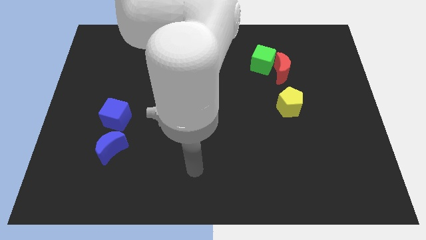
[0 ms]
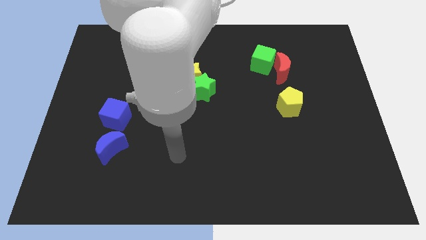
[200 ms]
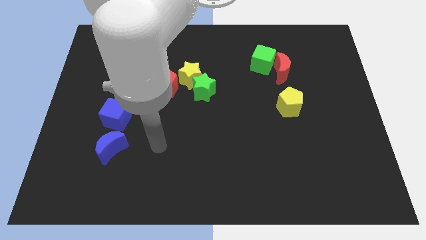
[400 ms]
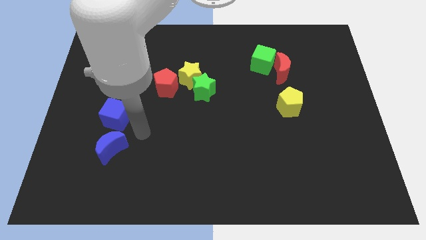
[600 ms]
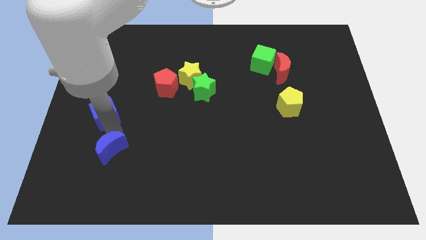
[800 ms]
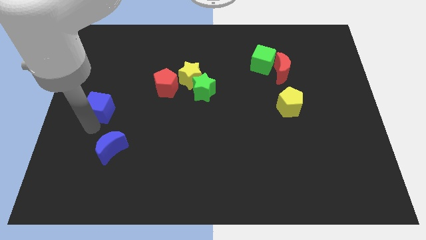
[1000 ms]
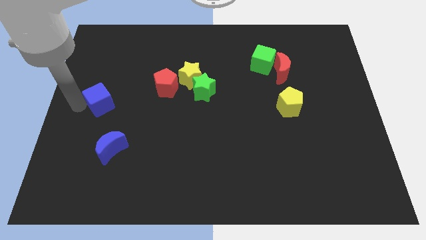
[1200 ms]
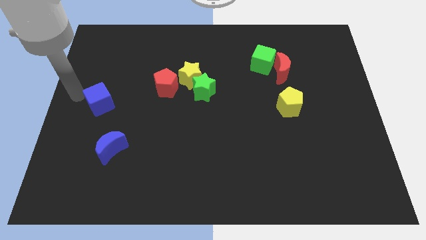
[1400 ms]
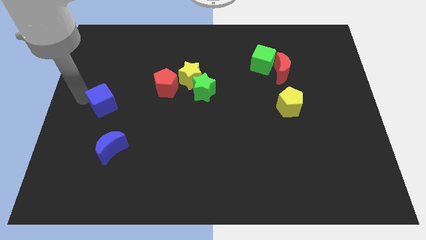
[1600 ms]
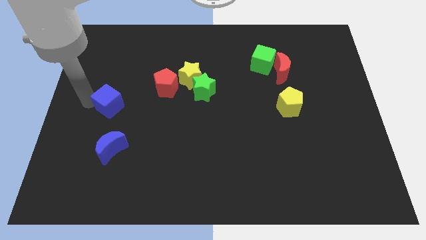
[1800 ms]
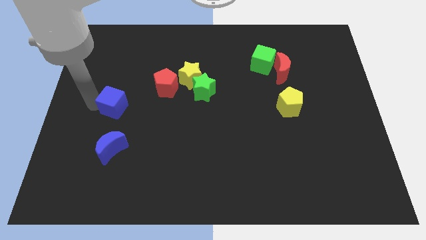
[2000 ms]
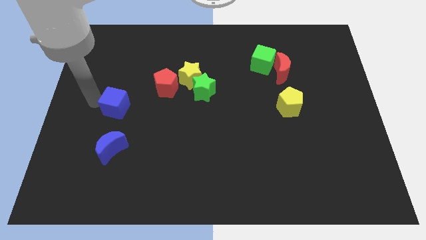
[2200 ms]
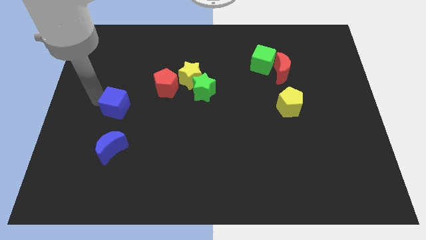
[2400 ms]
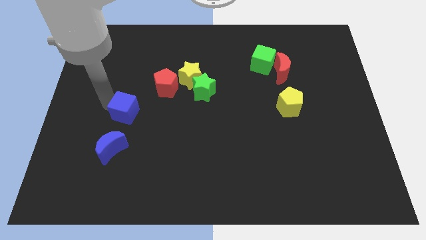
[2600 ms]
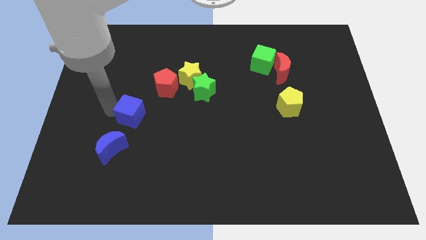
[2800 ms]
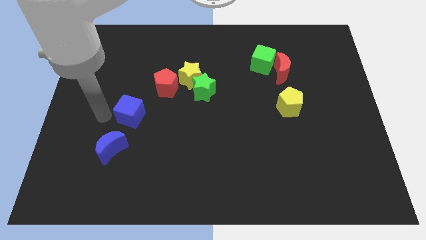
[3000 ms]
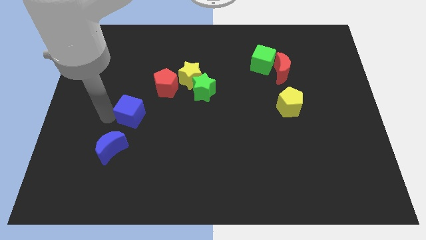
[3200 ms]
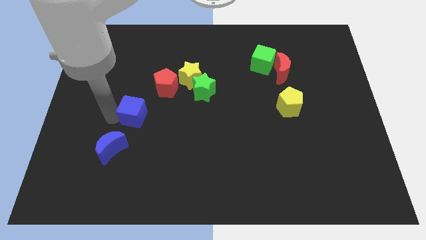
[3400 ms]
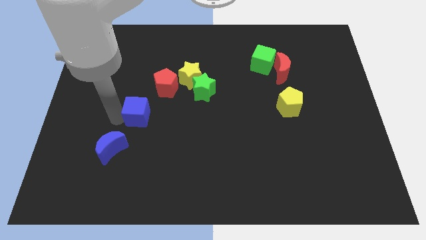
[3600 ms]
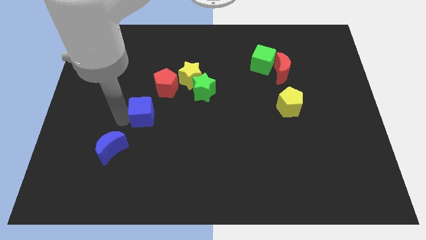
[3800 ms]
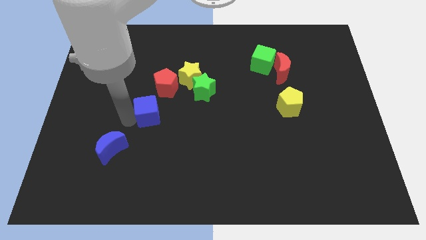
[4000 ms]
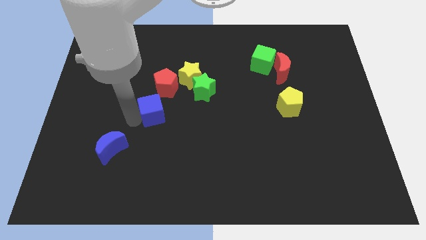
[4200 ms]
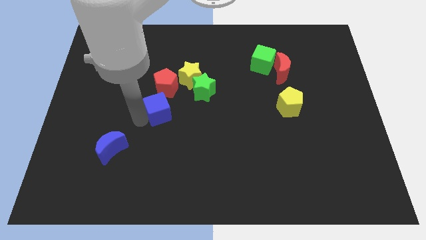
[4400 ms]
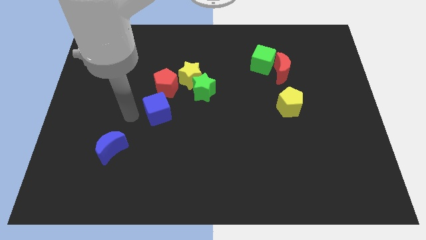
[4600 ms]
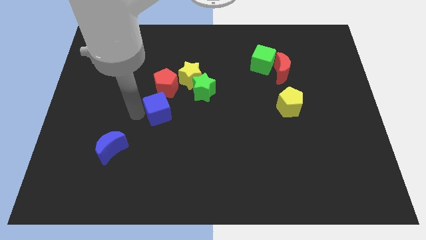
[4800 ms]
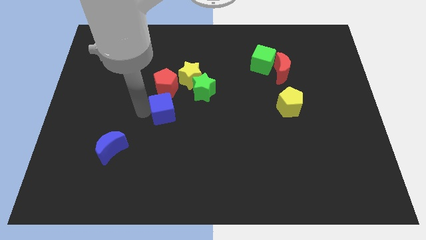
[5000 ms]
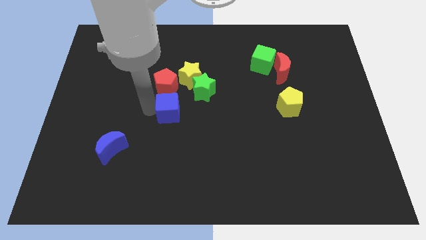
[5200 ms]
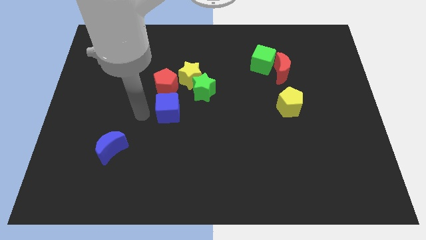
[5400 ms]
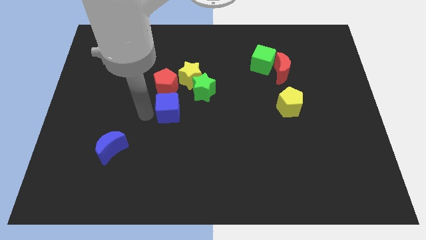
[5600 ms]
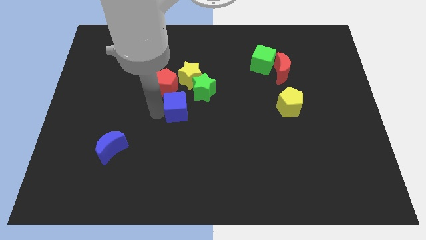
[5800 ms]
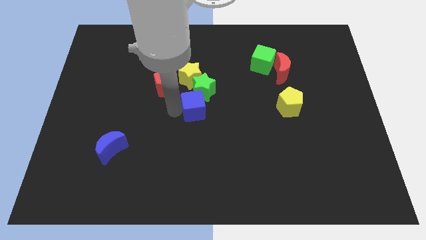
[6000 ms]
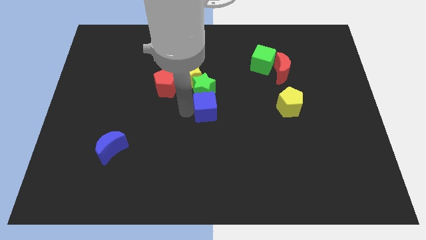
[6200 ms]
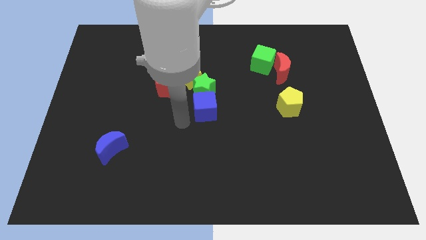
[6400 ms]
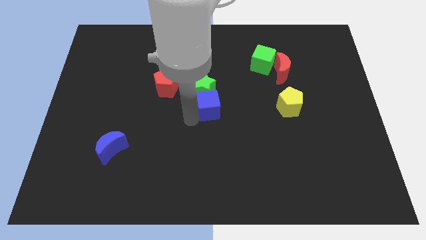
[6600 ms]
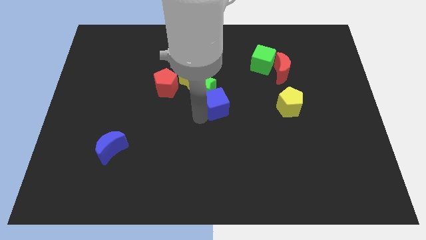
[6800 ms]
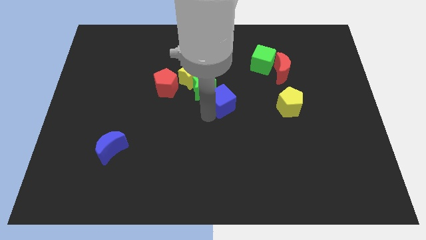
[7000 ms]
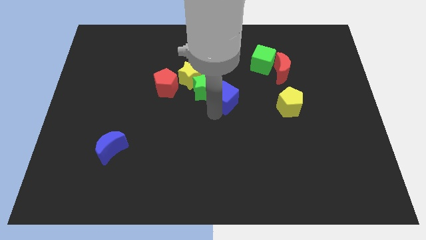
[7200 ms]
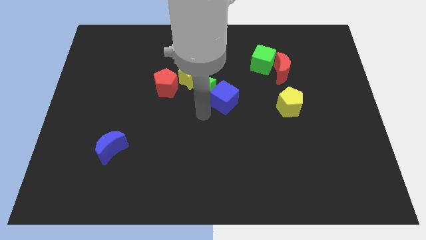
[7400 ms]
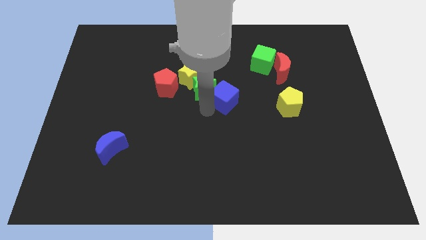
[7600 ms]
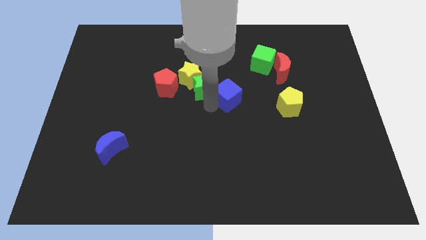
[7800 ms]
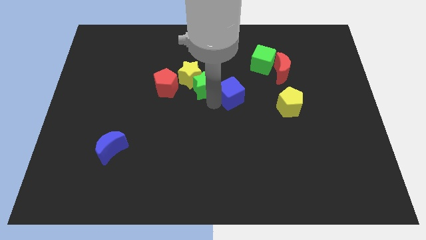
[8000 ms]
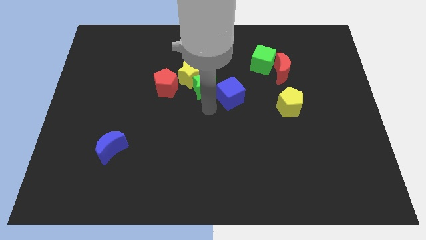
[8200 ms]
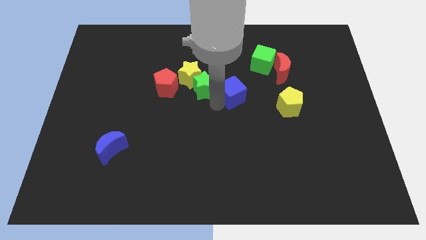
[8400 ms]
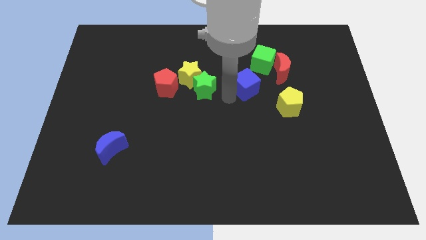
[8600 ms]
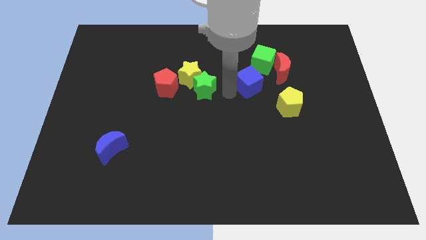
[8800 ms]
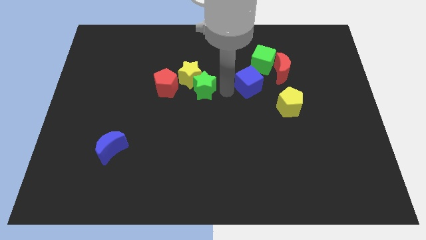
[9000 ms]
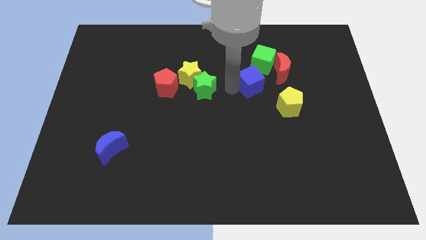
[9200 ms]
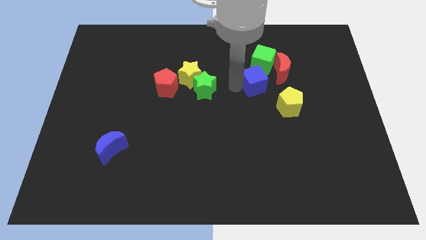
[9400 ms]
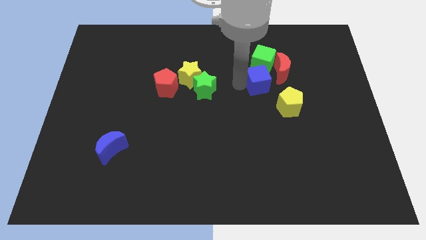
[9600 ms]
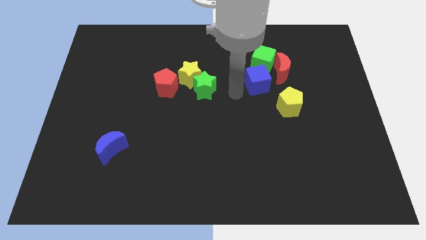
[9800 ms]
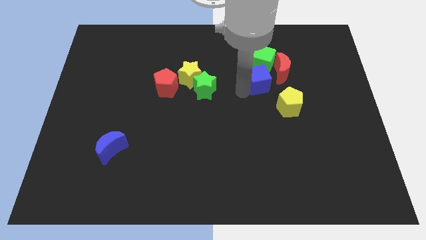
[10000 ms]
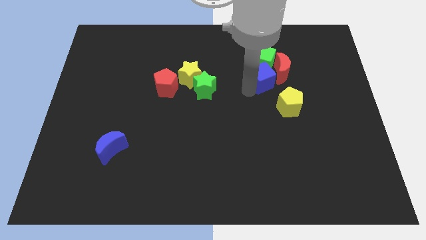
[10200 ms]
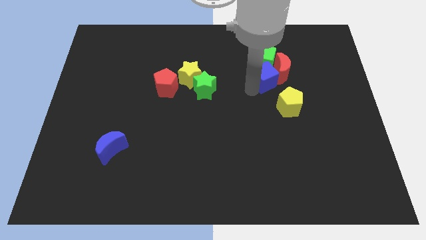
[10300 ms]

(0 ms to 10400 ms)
put the blue cube to the red moon

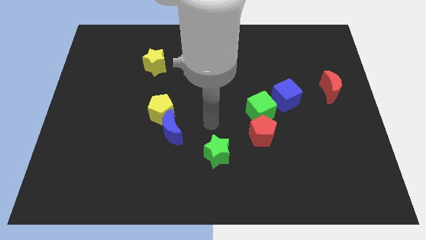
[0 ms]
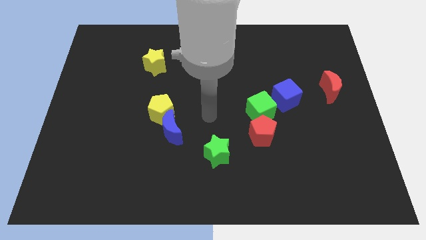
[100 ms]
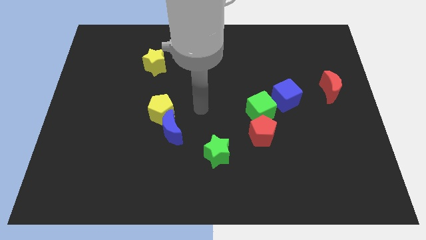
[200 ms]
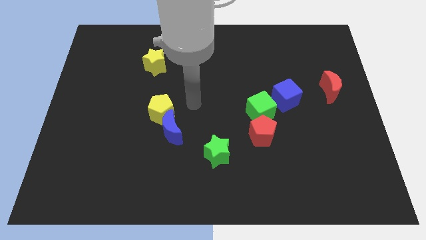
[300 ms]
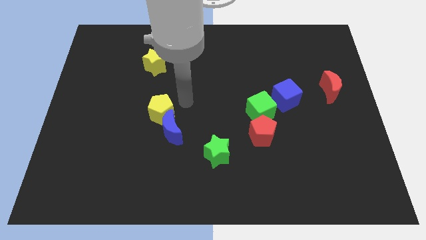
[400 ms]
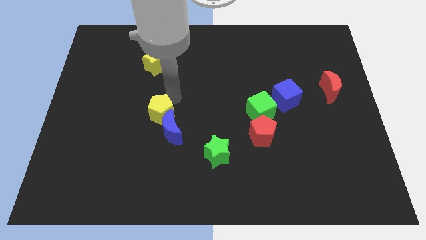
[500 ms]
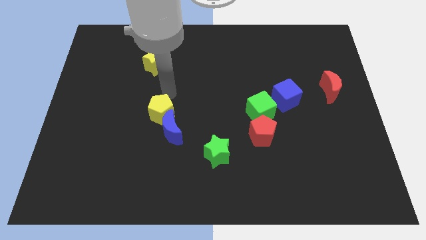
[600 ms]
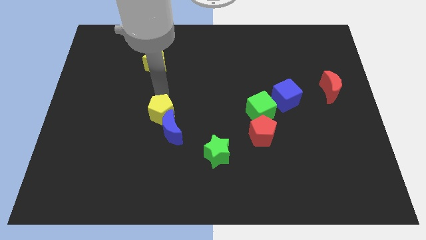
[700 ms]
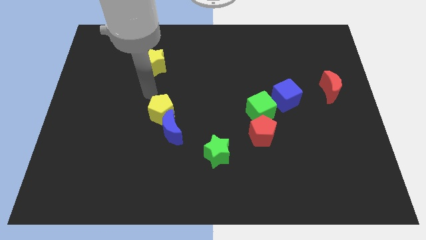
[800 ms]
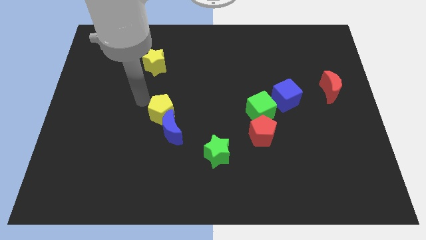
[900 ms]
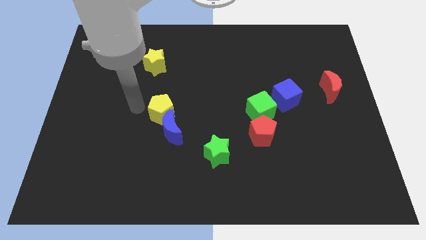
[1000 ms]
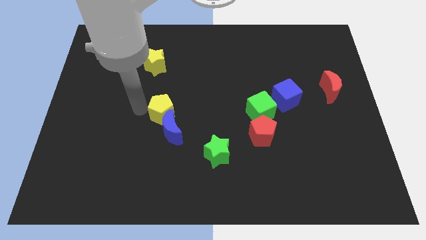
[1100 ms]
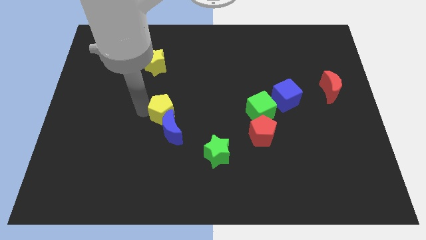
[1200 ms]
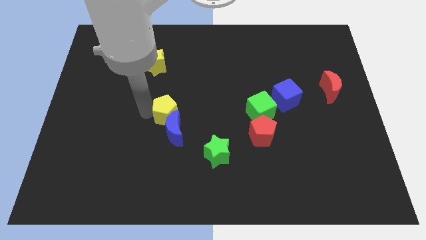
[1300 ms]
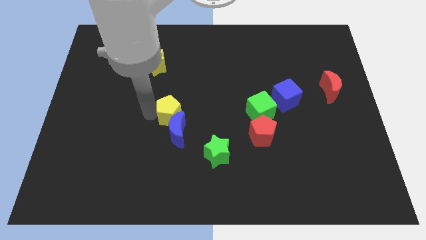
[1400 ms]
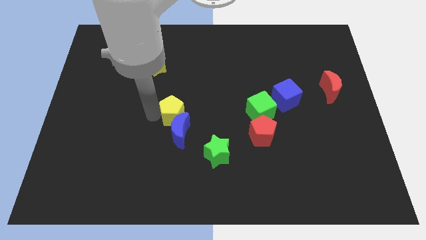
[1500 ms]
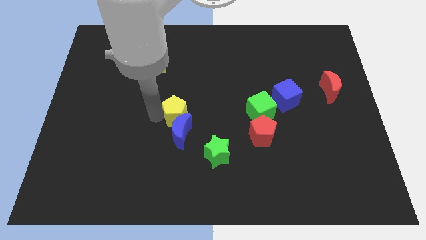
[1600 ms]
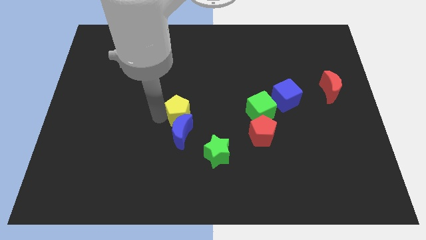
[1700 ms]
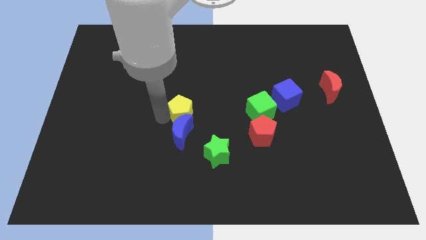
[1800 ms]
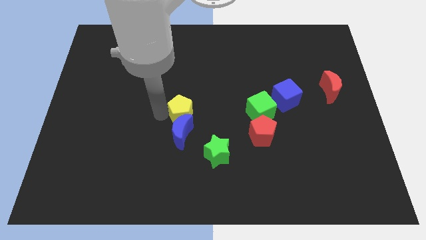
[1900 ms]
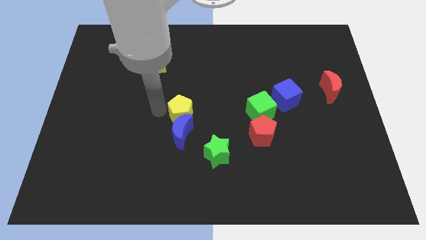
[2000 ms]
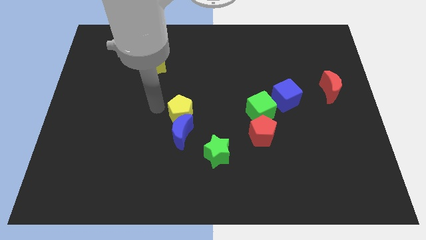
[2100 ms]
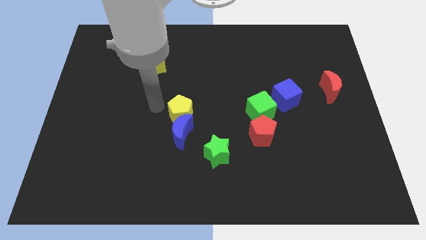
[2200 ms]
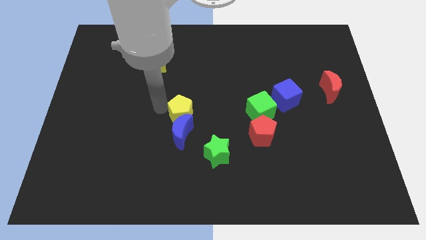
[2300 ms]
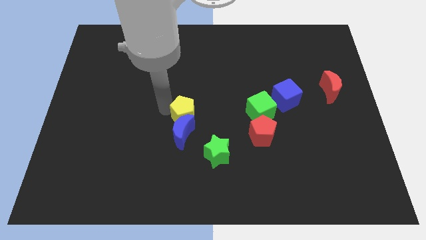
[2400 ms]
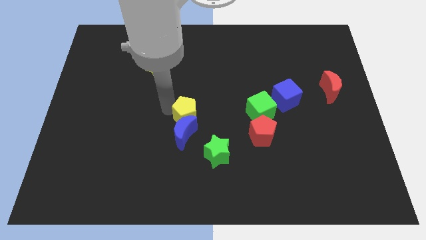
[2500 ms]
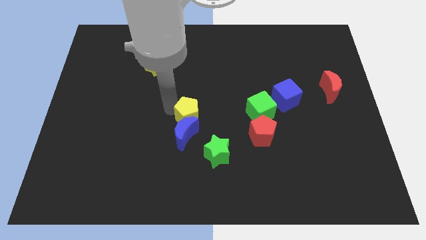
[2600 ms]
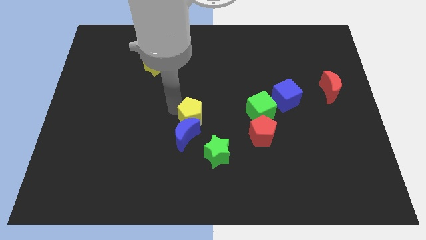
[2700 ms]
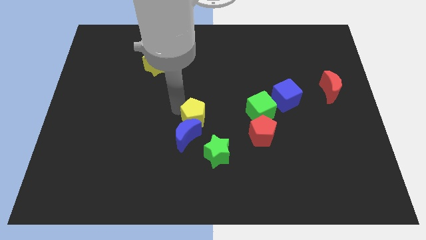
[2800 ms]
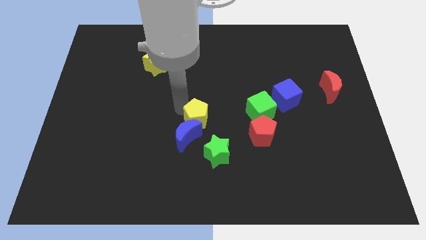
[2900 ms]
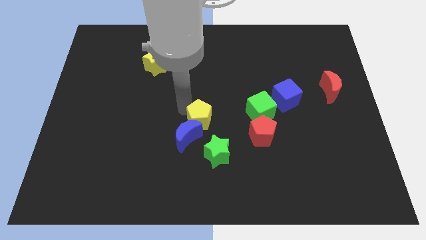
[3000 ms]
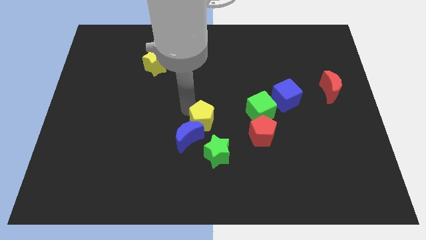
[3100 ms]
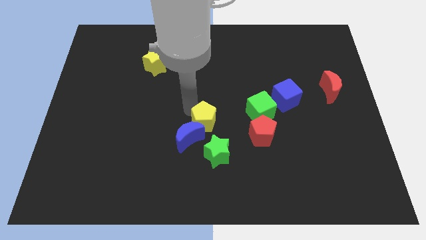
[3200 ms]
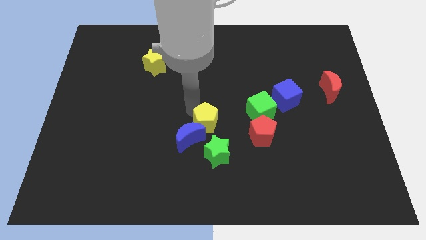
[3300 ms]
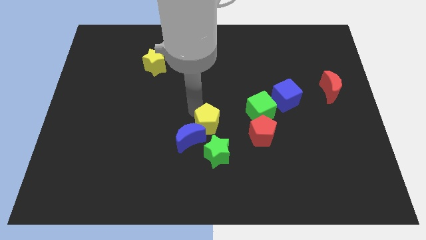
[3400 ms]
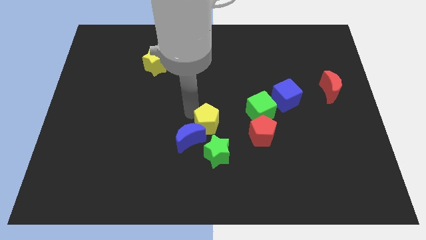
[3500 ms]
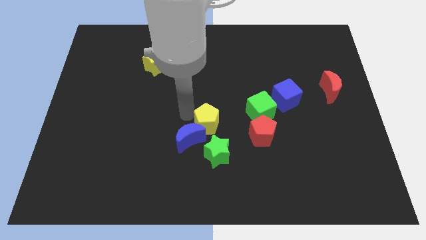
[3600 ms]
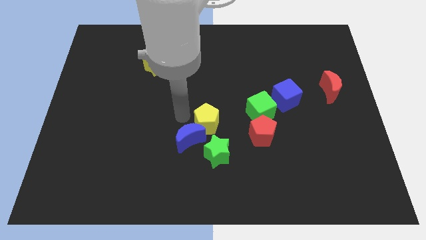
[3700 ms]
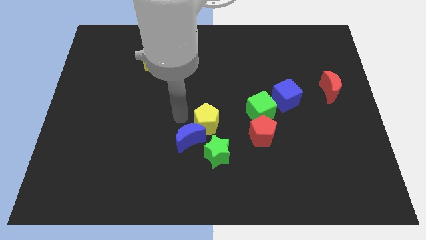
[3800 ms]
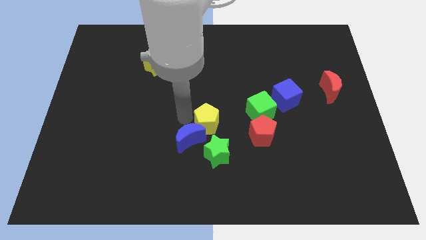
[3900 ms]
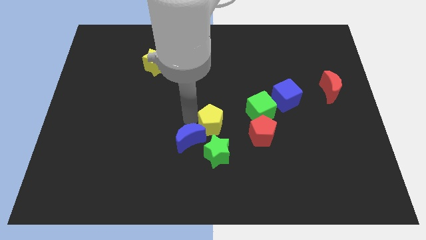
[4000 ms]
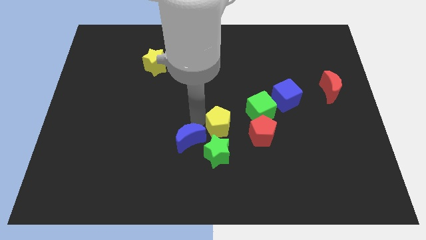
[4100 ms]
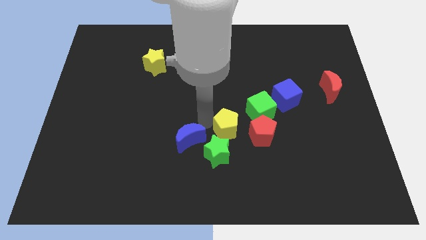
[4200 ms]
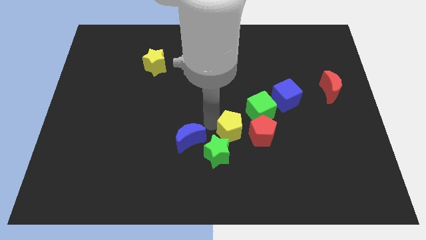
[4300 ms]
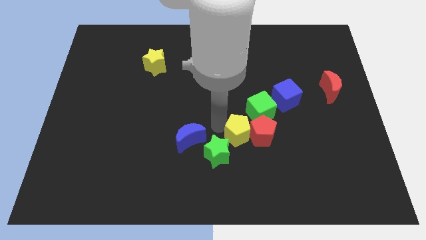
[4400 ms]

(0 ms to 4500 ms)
move the yellow pentagon close to the red pentagon
